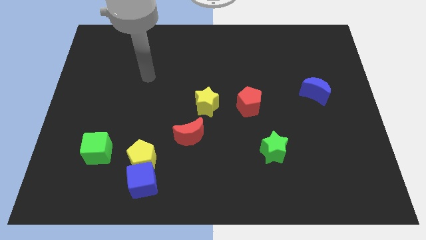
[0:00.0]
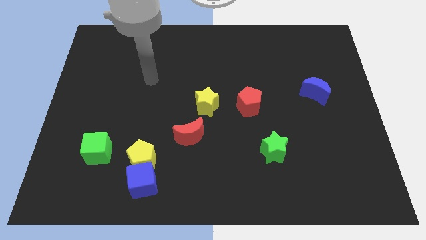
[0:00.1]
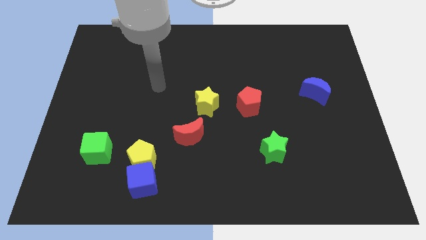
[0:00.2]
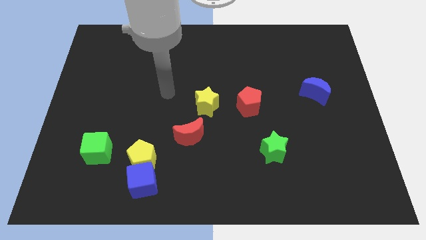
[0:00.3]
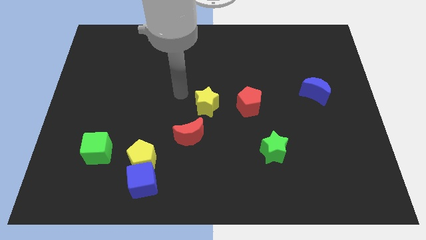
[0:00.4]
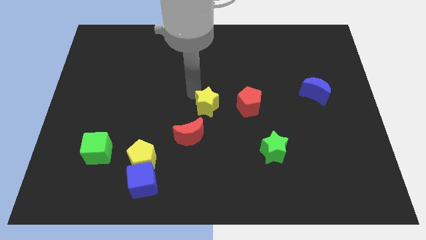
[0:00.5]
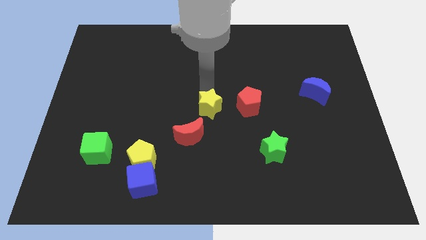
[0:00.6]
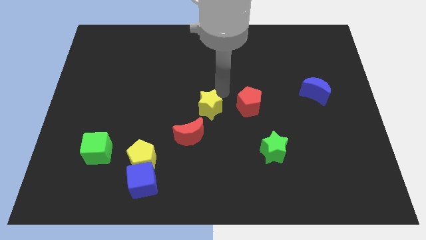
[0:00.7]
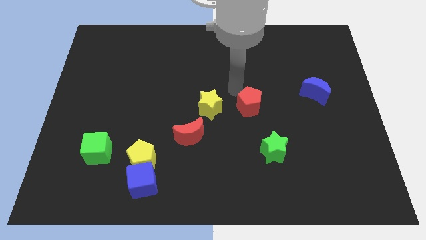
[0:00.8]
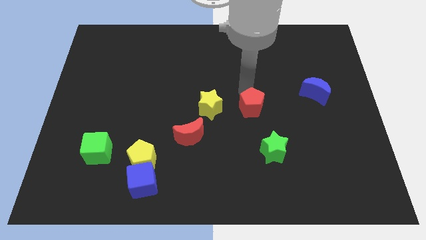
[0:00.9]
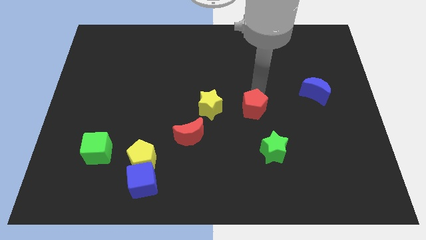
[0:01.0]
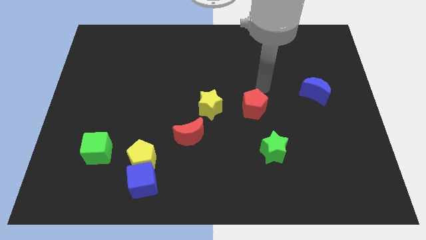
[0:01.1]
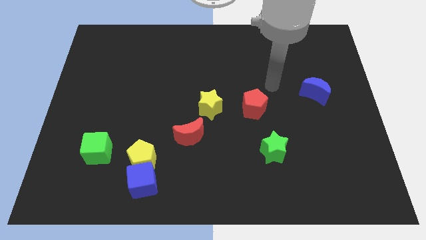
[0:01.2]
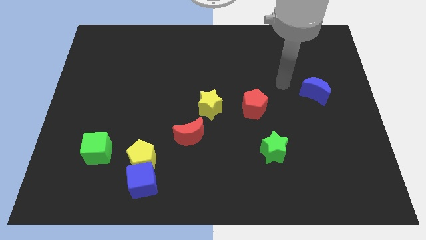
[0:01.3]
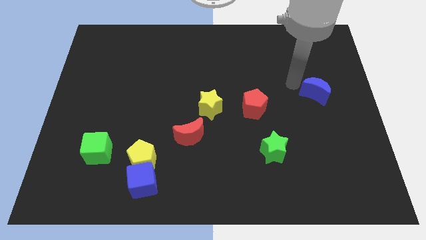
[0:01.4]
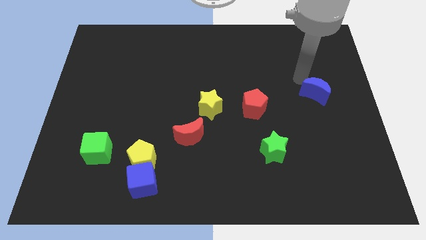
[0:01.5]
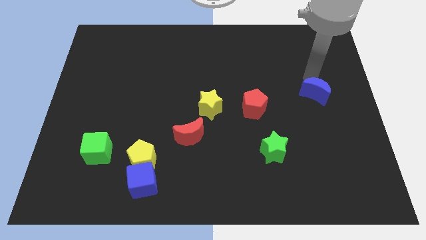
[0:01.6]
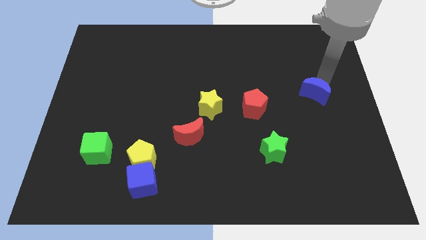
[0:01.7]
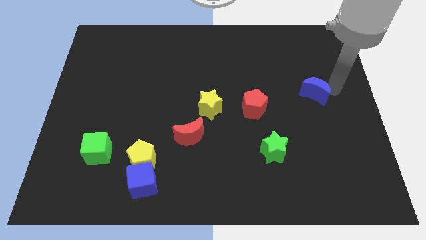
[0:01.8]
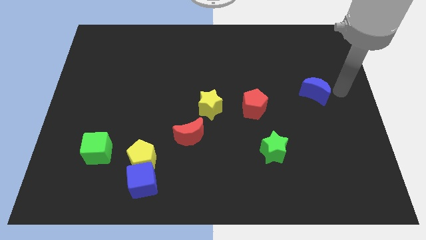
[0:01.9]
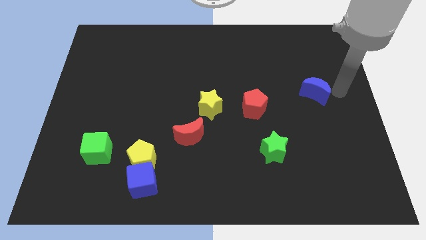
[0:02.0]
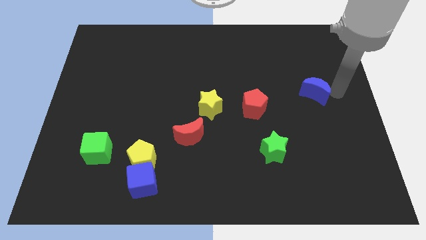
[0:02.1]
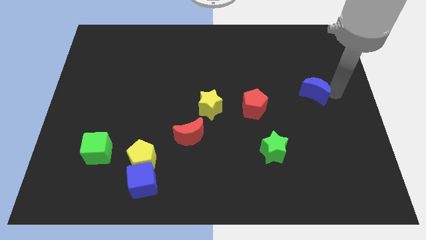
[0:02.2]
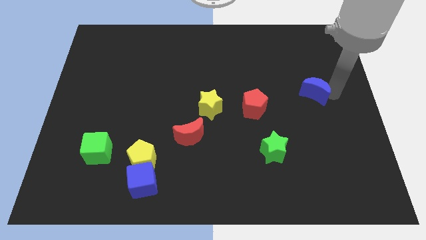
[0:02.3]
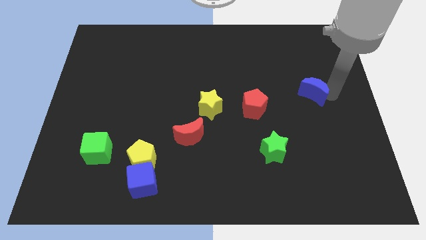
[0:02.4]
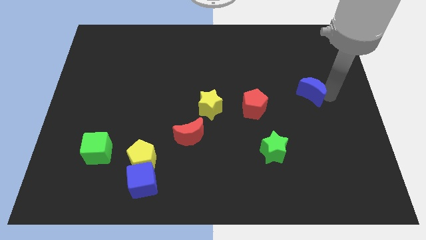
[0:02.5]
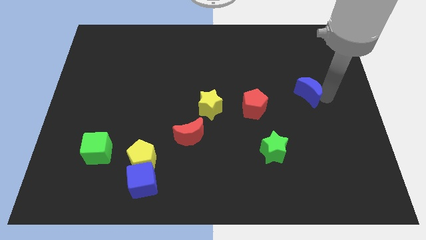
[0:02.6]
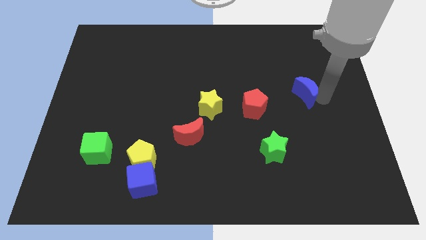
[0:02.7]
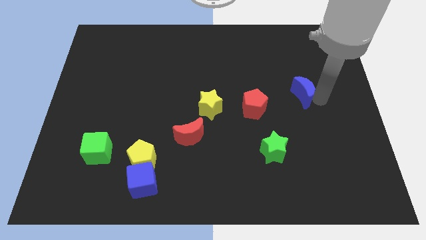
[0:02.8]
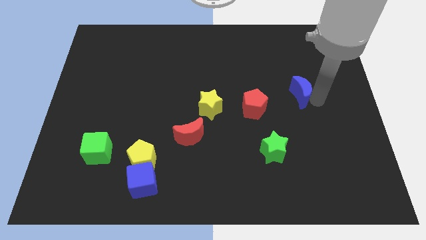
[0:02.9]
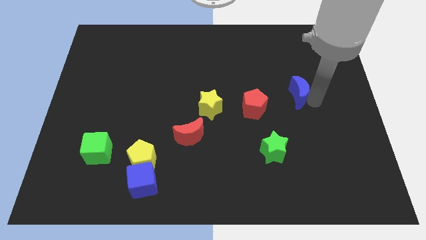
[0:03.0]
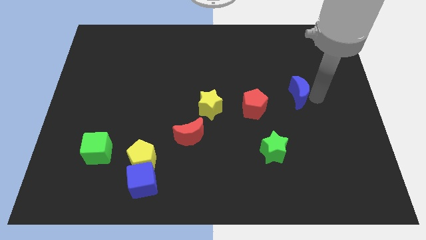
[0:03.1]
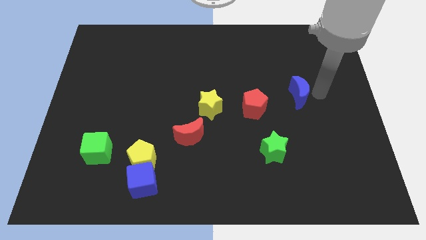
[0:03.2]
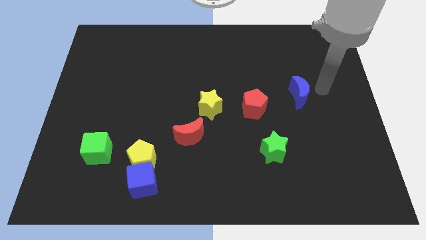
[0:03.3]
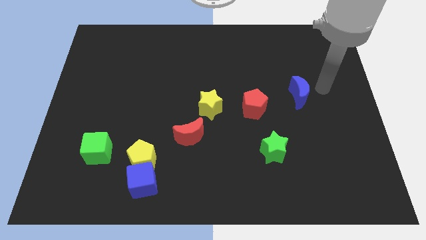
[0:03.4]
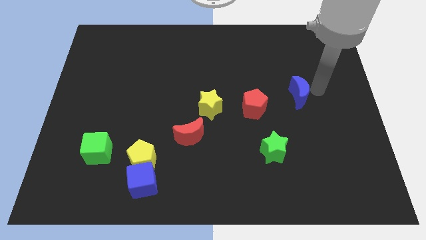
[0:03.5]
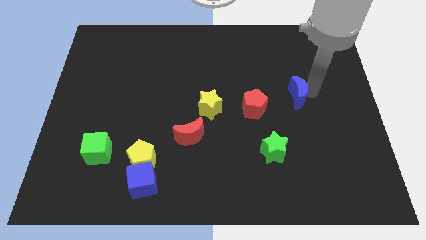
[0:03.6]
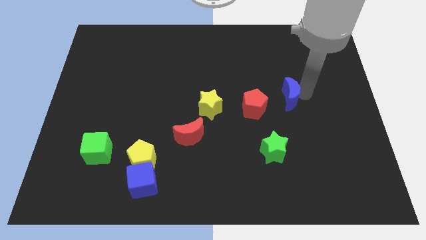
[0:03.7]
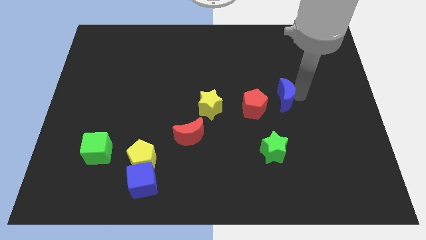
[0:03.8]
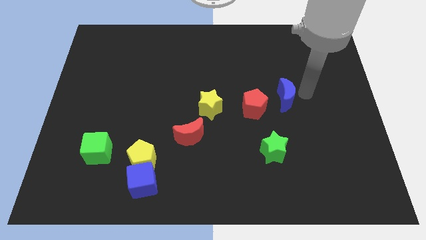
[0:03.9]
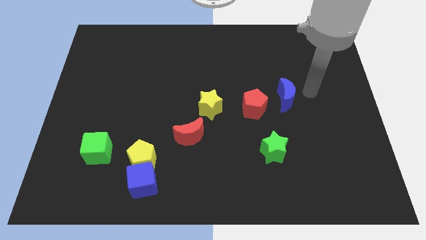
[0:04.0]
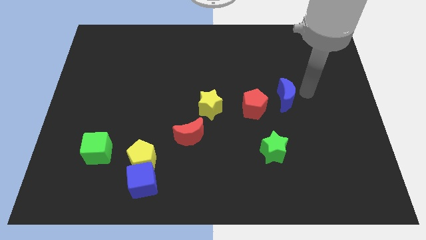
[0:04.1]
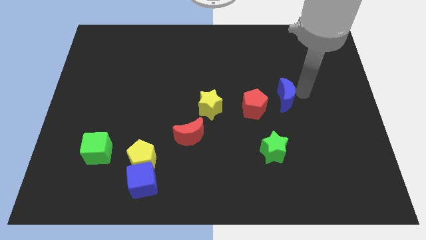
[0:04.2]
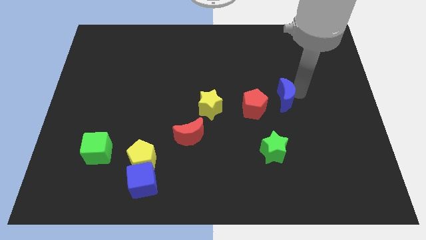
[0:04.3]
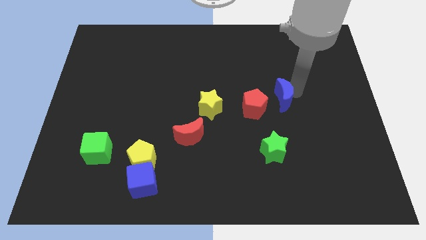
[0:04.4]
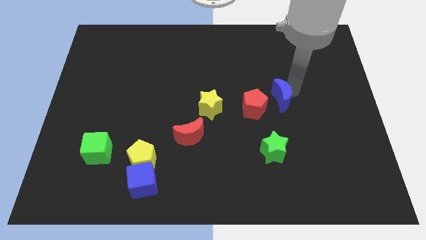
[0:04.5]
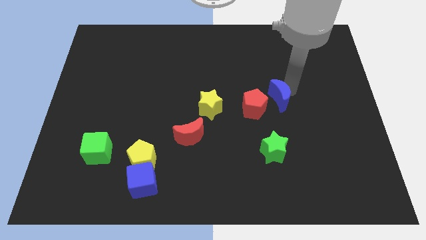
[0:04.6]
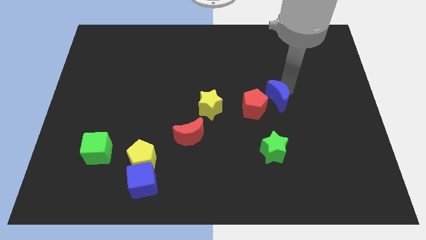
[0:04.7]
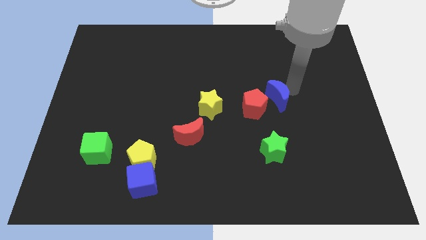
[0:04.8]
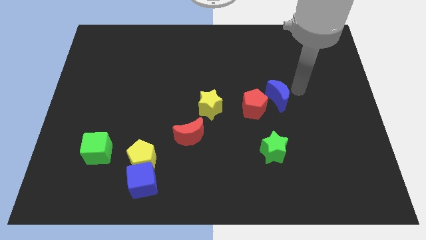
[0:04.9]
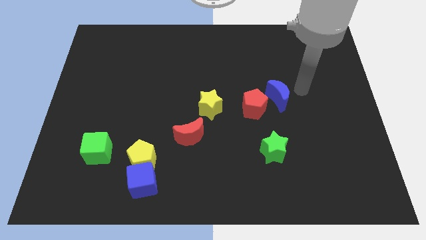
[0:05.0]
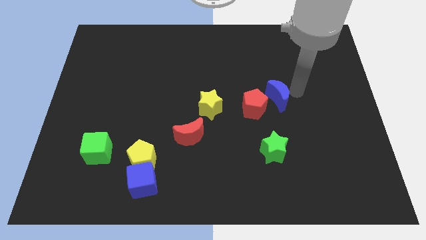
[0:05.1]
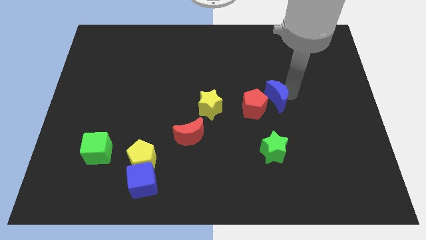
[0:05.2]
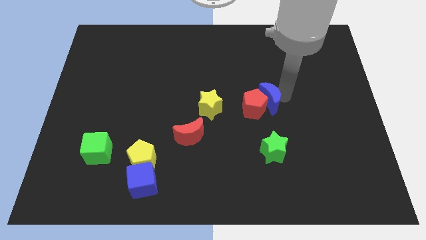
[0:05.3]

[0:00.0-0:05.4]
move the blue moon to the red pentagon

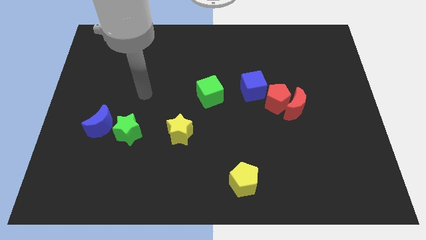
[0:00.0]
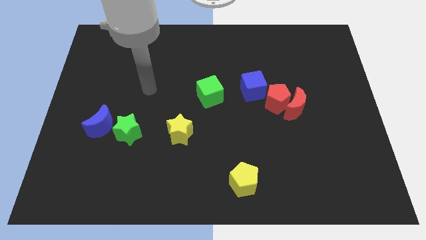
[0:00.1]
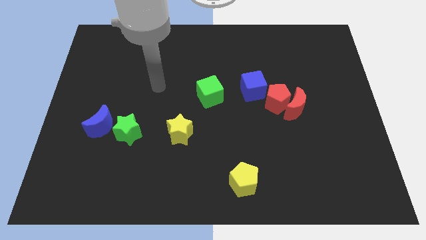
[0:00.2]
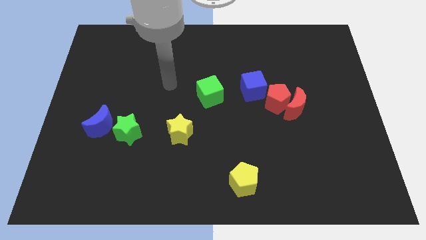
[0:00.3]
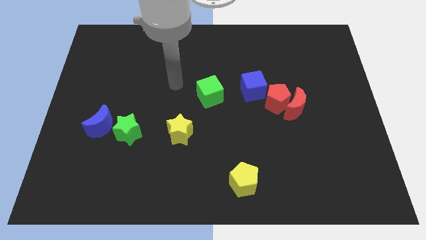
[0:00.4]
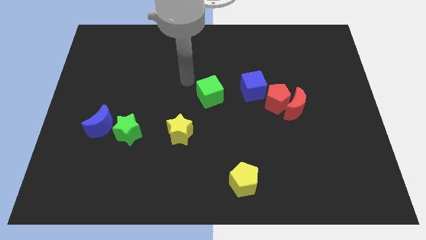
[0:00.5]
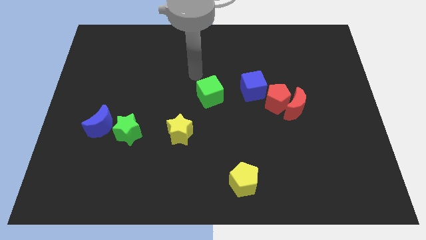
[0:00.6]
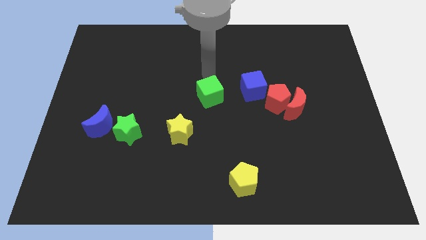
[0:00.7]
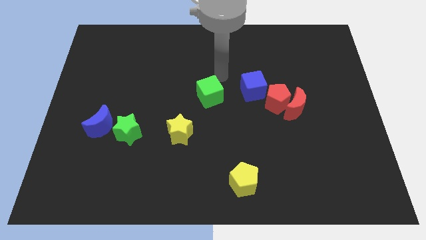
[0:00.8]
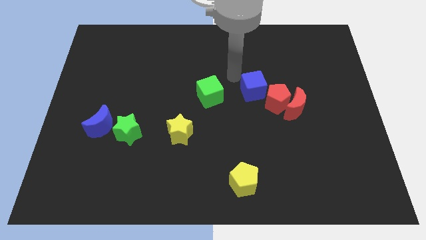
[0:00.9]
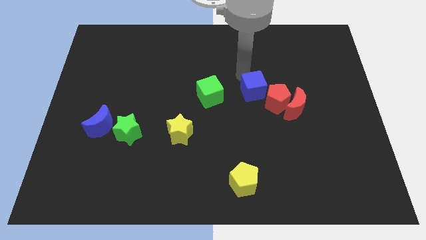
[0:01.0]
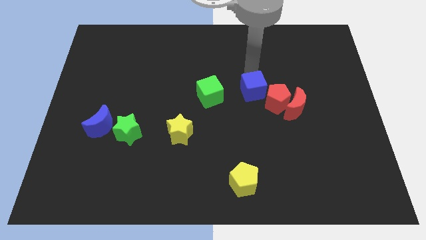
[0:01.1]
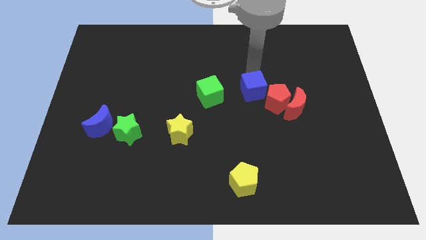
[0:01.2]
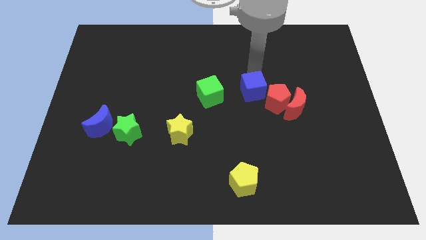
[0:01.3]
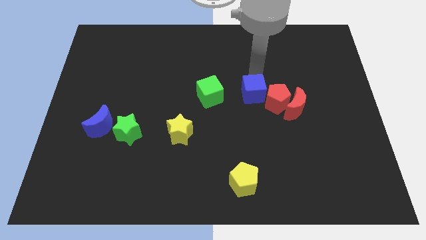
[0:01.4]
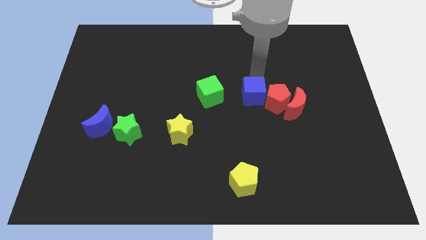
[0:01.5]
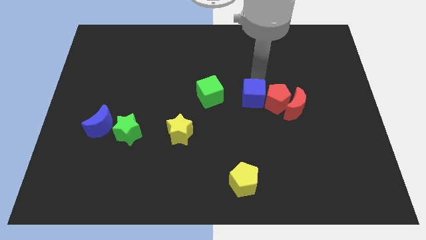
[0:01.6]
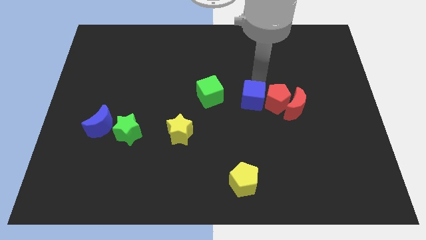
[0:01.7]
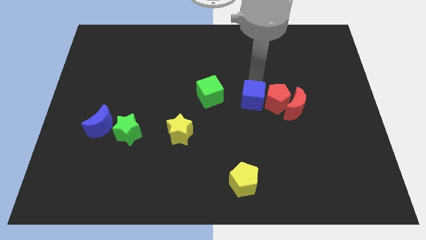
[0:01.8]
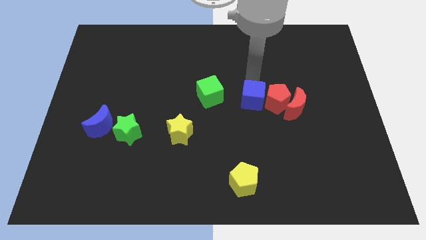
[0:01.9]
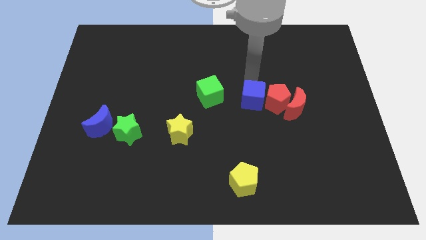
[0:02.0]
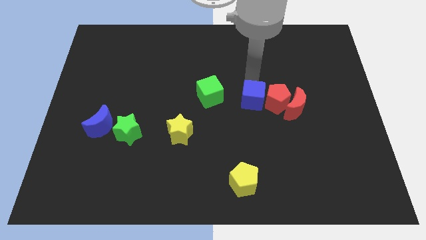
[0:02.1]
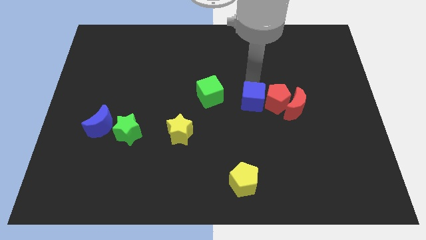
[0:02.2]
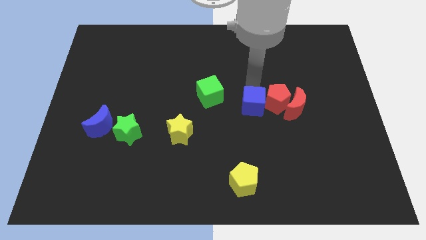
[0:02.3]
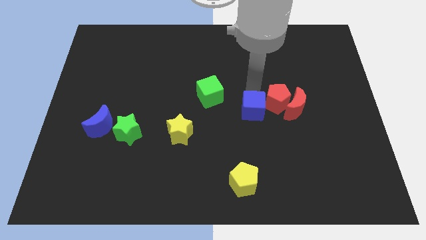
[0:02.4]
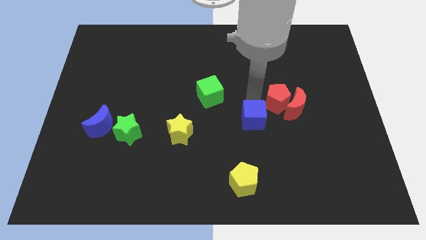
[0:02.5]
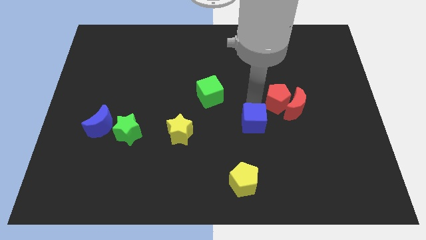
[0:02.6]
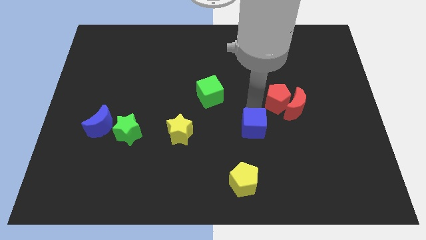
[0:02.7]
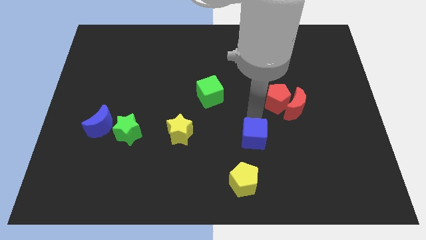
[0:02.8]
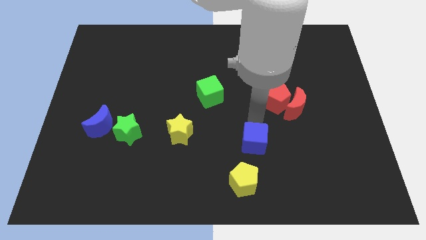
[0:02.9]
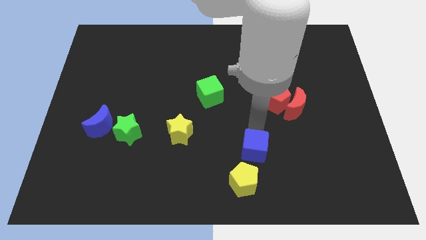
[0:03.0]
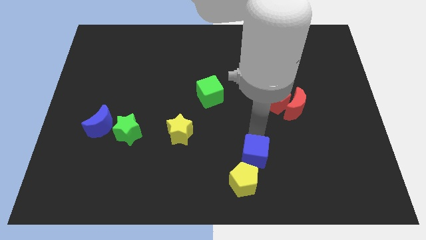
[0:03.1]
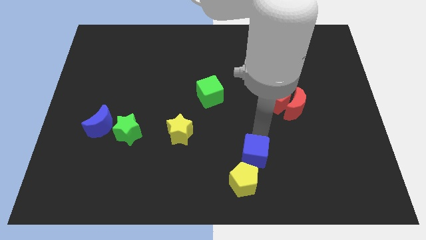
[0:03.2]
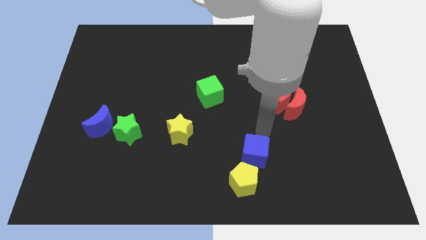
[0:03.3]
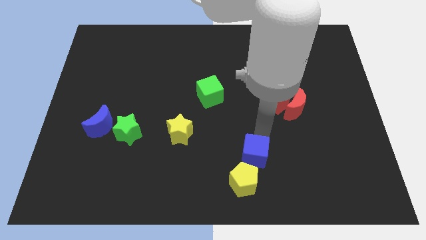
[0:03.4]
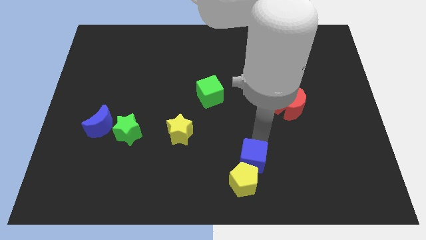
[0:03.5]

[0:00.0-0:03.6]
put the blue cube next to the yellow pentagon
